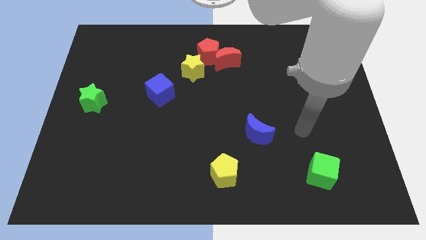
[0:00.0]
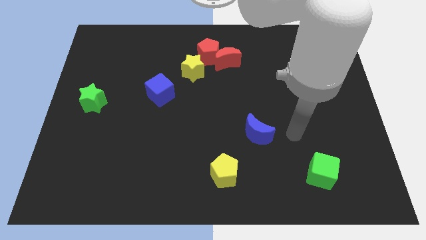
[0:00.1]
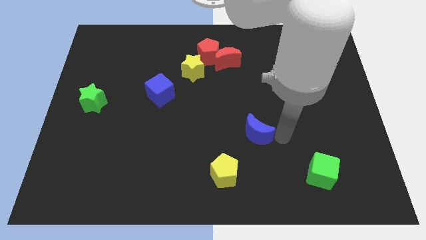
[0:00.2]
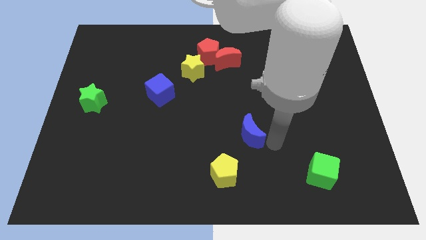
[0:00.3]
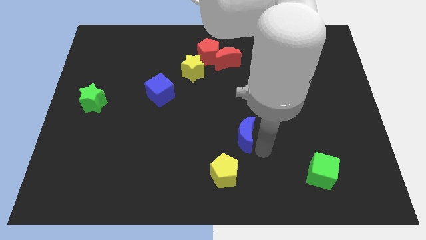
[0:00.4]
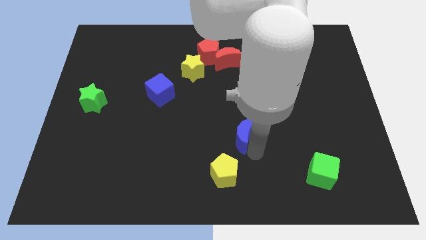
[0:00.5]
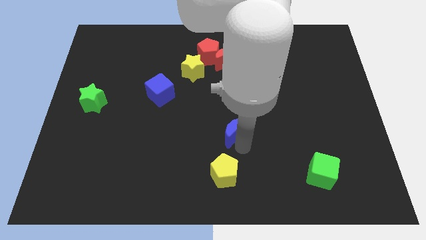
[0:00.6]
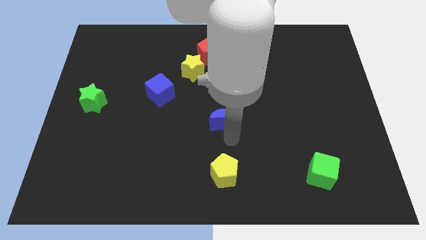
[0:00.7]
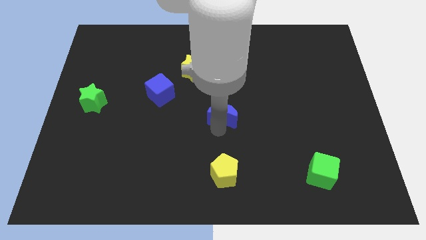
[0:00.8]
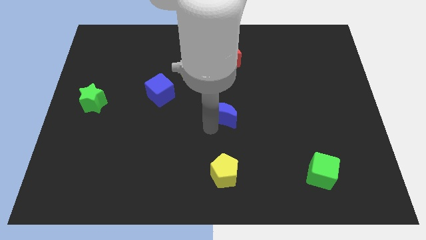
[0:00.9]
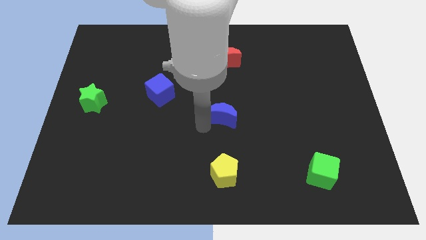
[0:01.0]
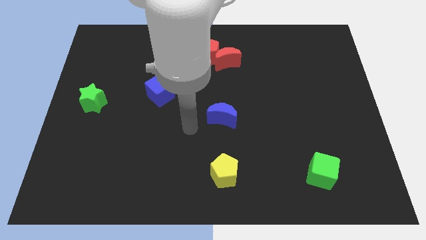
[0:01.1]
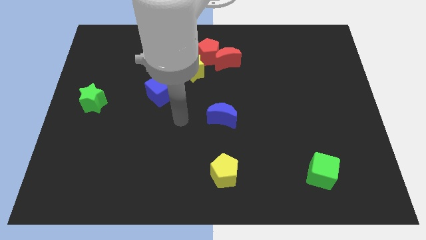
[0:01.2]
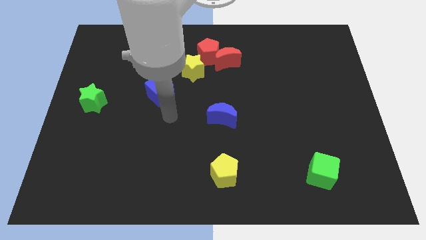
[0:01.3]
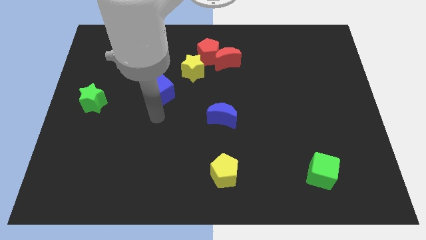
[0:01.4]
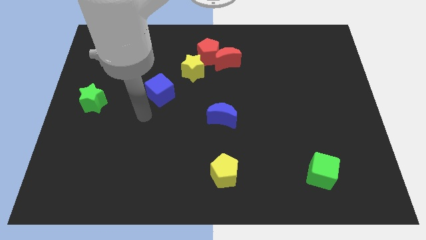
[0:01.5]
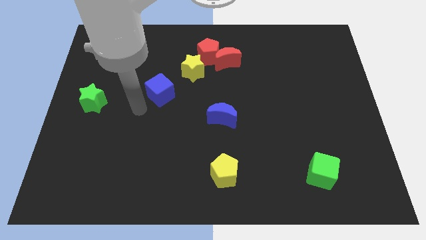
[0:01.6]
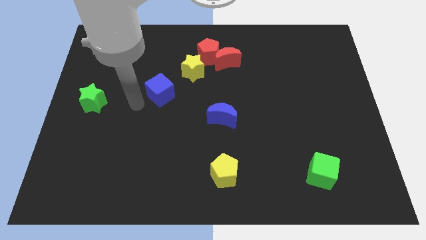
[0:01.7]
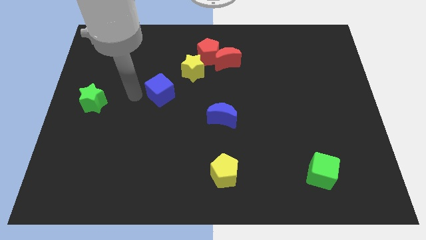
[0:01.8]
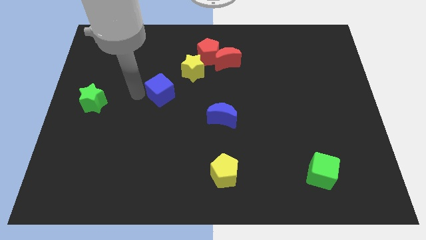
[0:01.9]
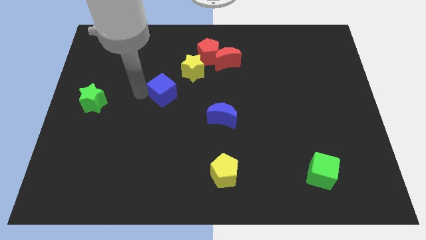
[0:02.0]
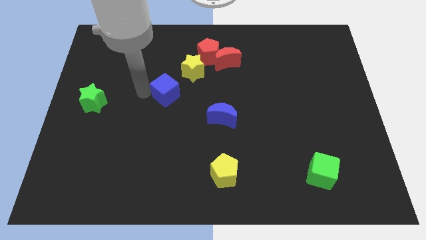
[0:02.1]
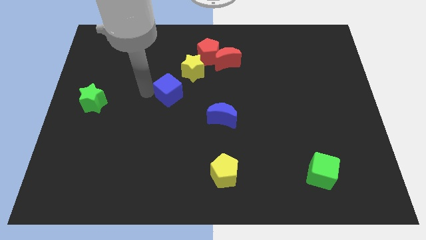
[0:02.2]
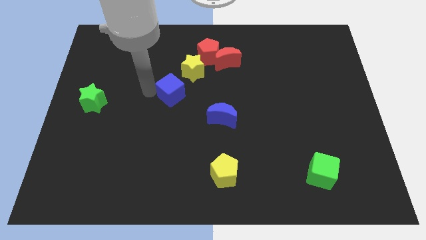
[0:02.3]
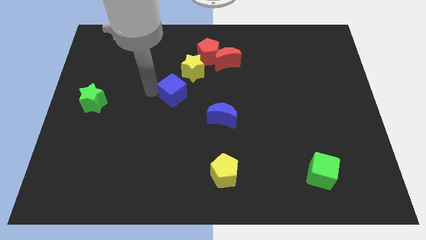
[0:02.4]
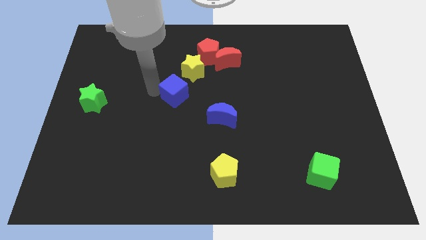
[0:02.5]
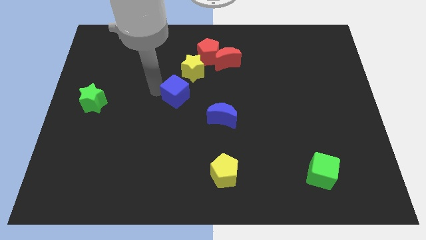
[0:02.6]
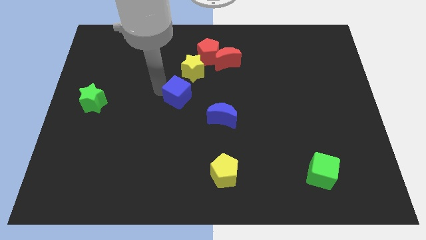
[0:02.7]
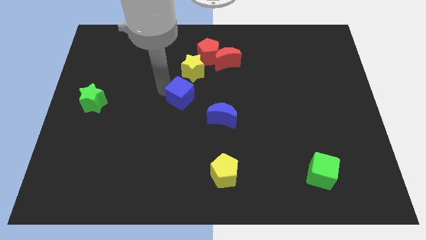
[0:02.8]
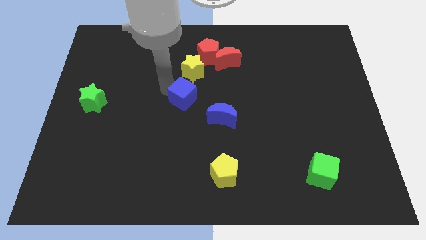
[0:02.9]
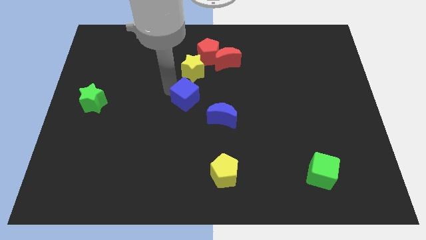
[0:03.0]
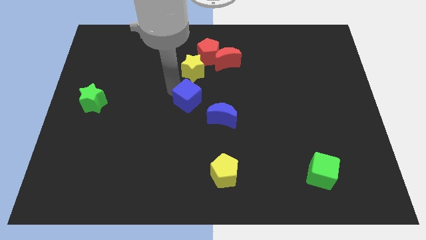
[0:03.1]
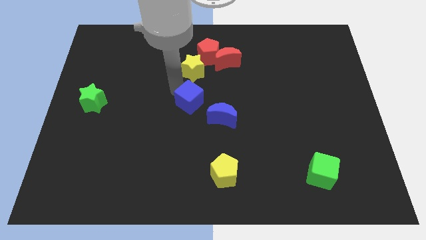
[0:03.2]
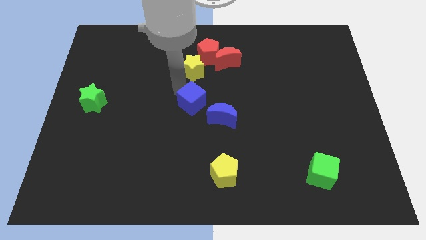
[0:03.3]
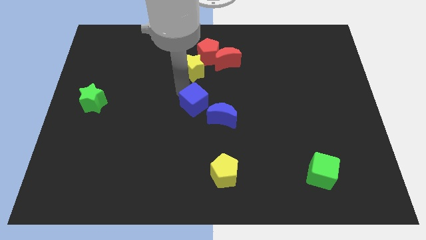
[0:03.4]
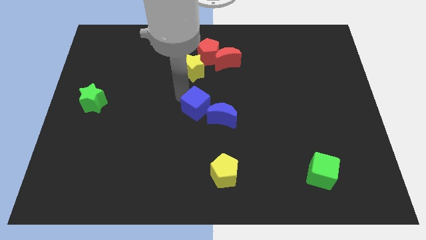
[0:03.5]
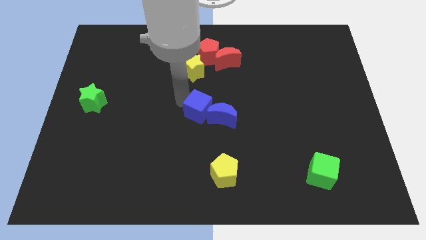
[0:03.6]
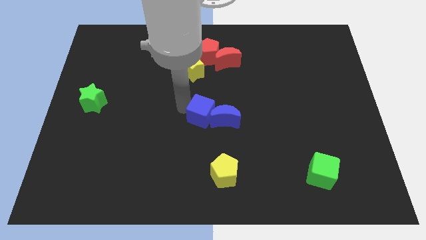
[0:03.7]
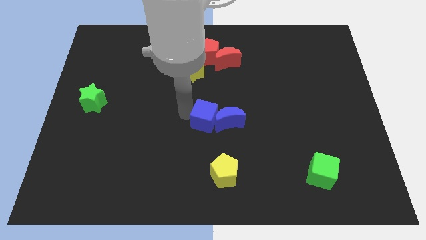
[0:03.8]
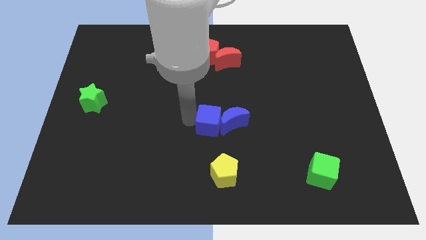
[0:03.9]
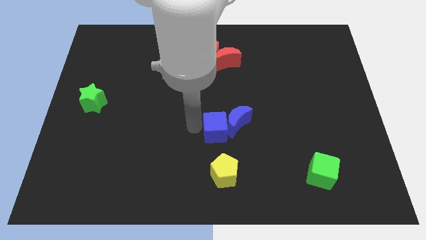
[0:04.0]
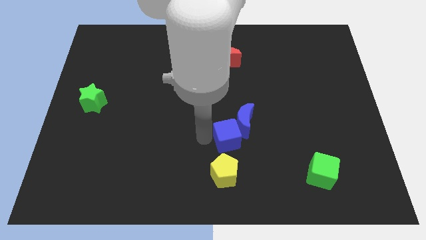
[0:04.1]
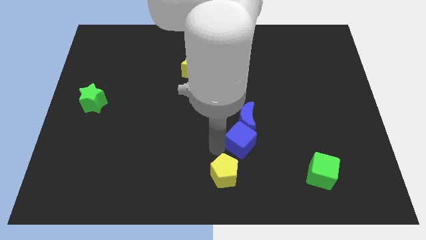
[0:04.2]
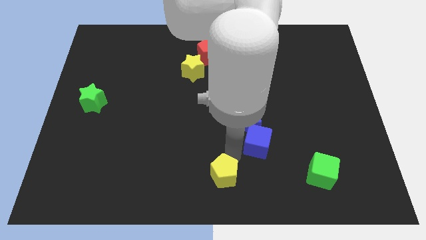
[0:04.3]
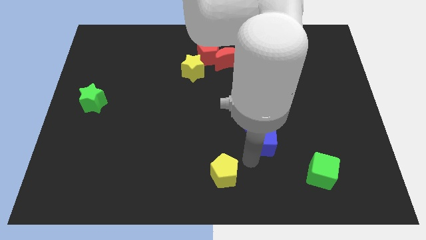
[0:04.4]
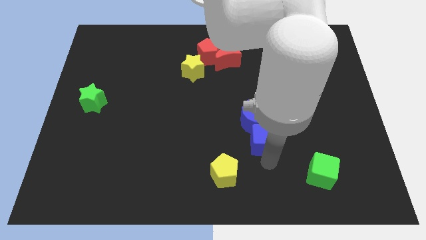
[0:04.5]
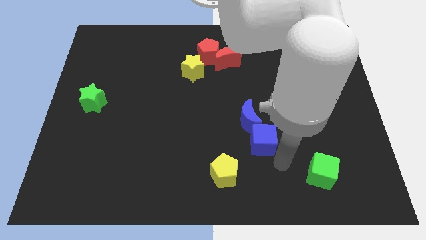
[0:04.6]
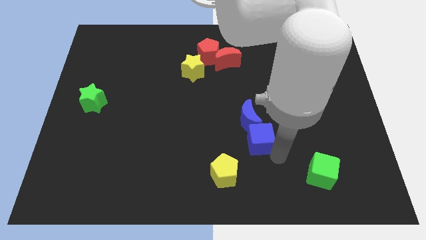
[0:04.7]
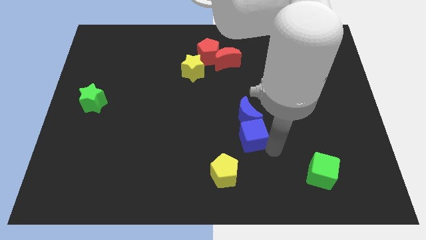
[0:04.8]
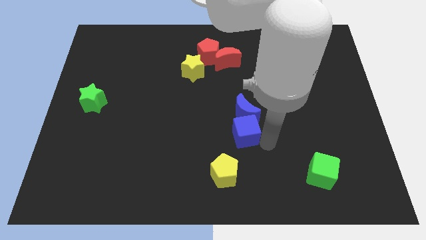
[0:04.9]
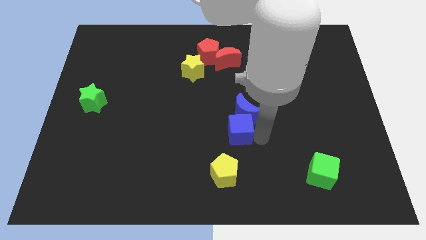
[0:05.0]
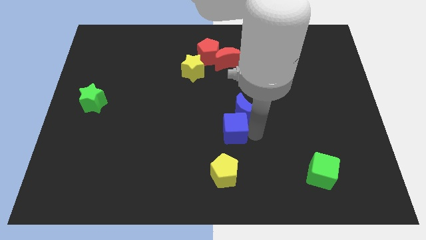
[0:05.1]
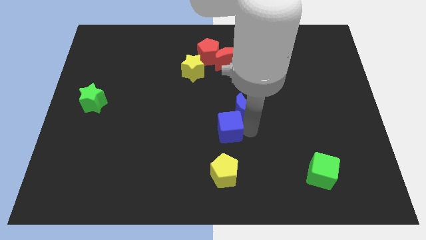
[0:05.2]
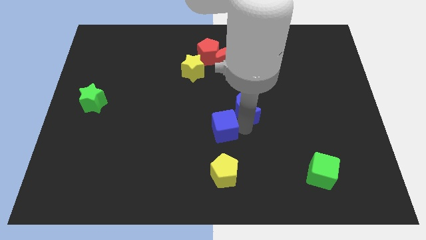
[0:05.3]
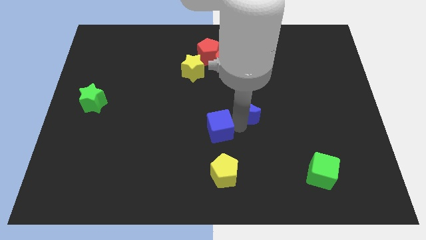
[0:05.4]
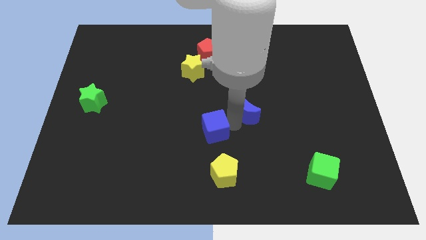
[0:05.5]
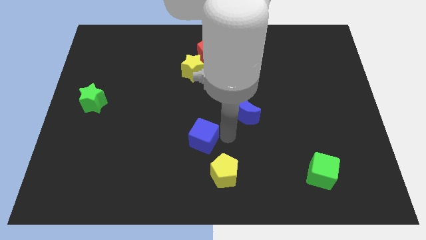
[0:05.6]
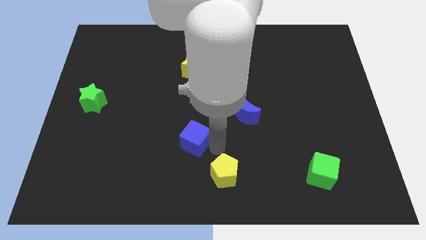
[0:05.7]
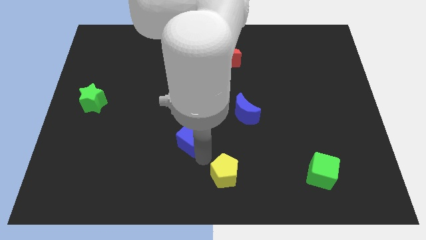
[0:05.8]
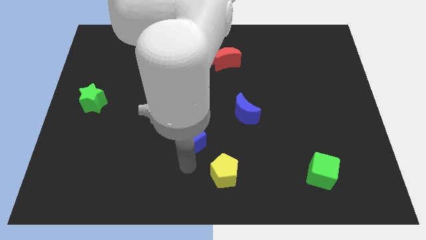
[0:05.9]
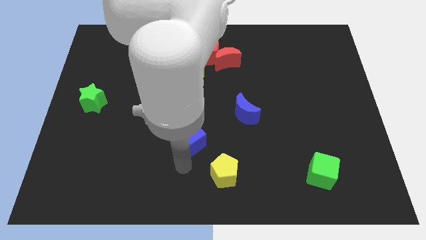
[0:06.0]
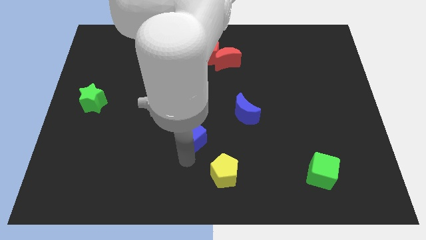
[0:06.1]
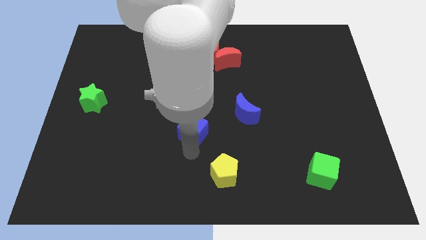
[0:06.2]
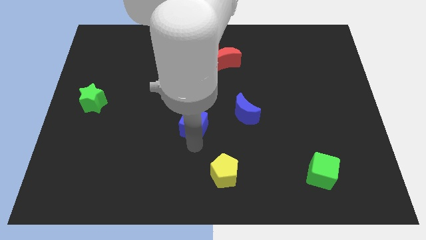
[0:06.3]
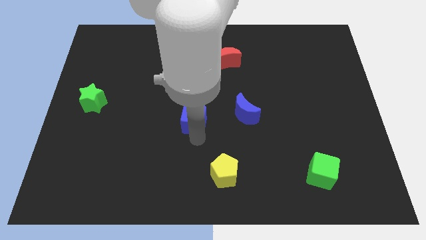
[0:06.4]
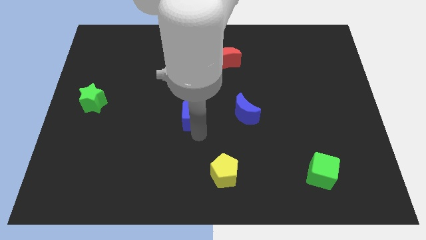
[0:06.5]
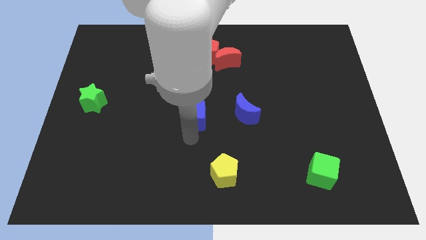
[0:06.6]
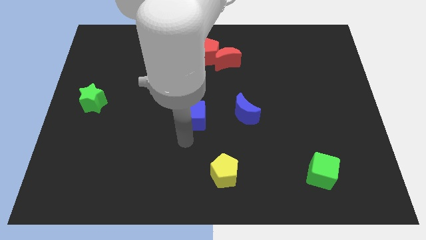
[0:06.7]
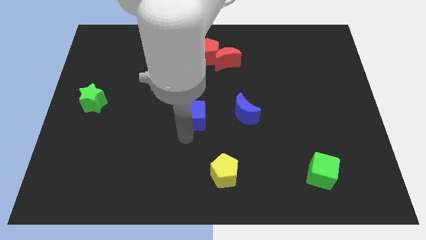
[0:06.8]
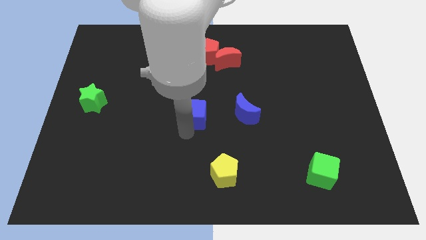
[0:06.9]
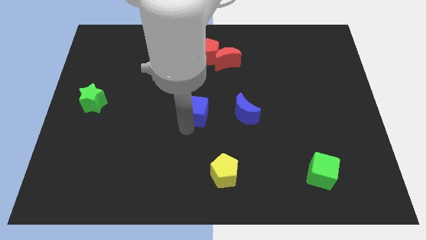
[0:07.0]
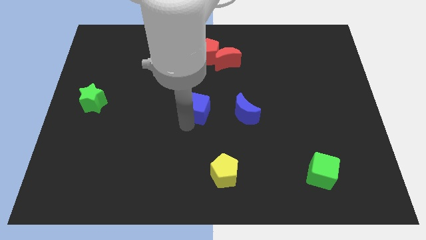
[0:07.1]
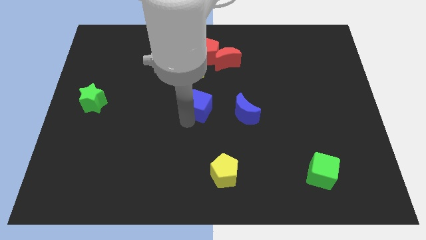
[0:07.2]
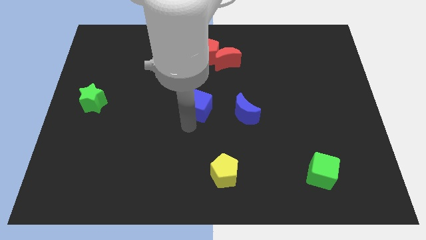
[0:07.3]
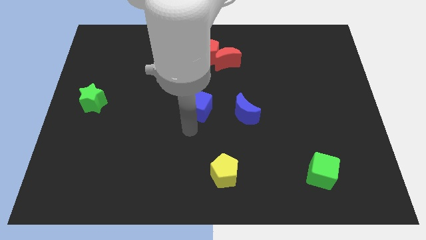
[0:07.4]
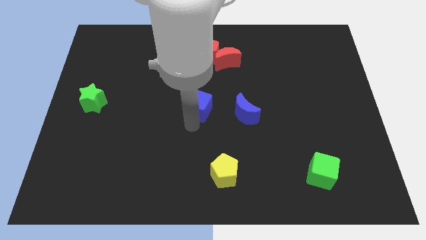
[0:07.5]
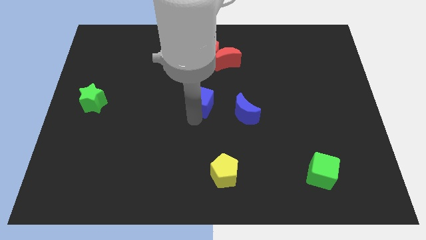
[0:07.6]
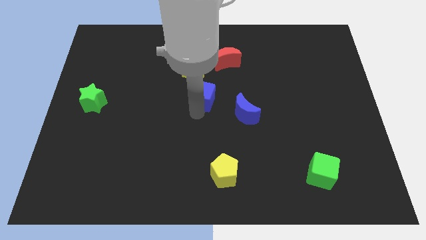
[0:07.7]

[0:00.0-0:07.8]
push the blue cube to the bottom side of the red pentagon
